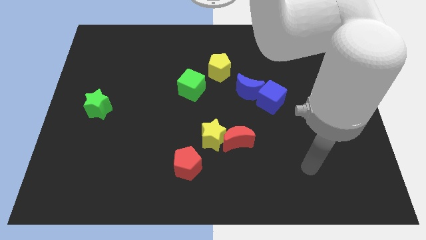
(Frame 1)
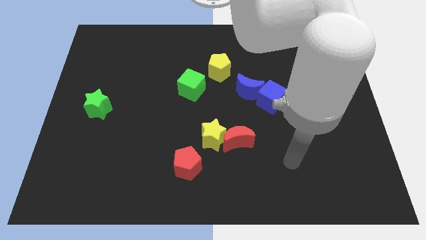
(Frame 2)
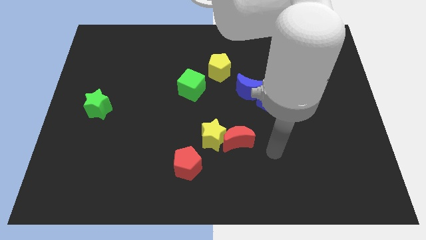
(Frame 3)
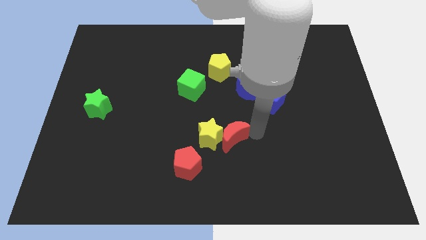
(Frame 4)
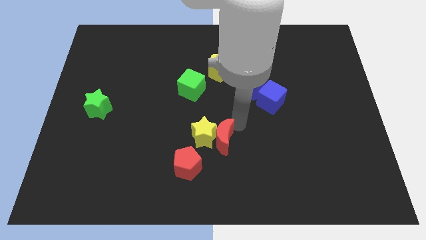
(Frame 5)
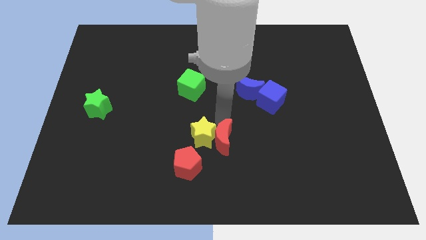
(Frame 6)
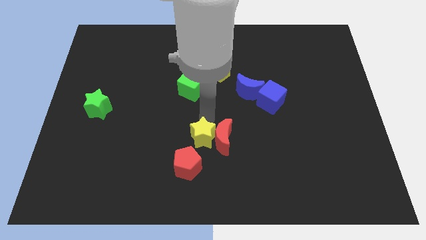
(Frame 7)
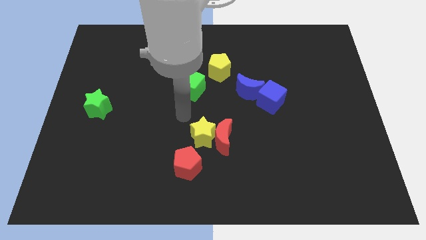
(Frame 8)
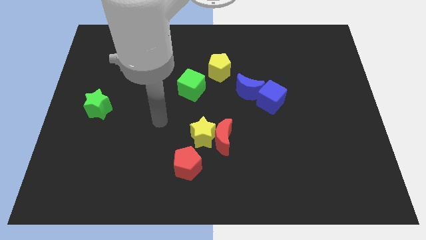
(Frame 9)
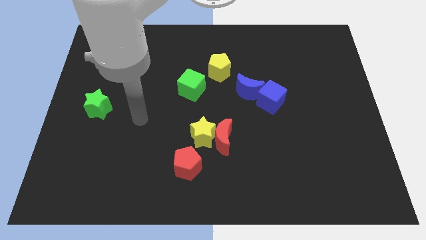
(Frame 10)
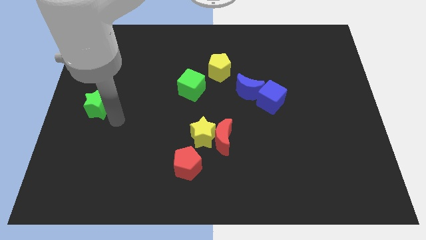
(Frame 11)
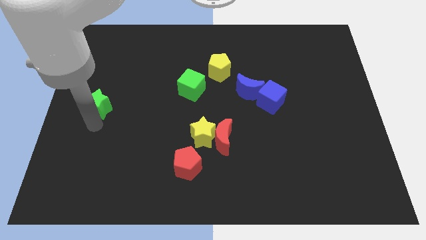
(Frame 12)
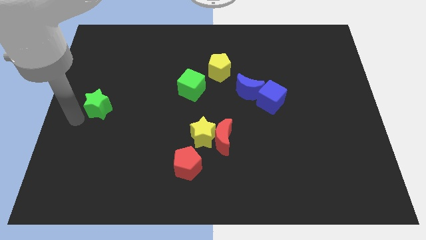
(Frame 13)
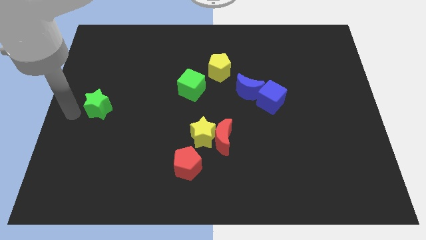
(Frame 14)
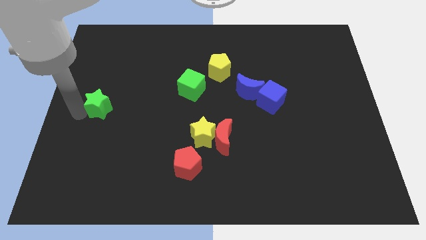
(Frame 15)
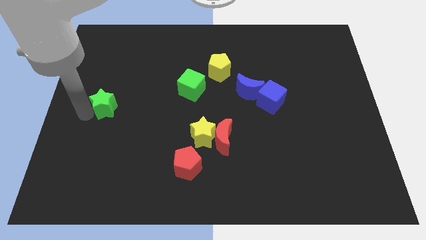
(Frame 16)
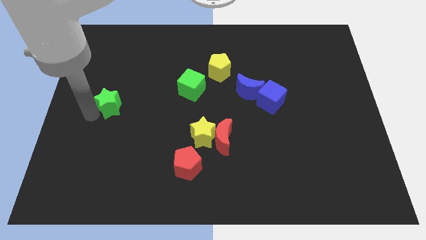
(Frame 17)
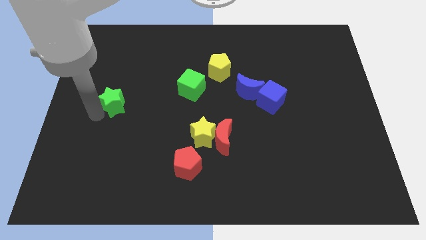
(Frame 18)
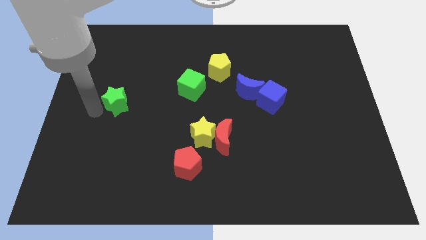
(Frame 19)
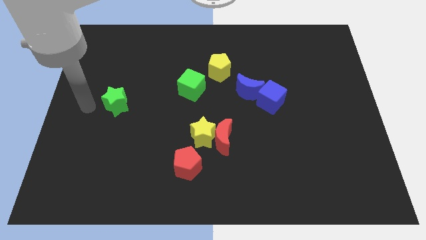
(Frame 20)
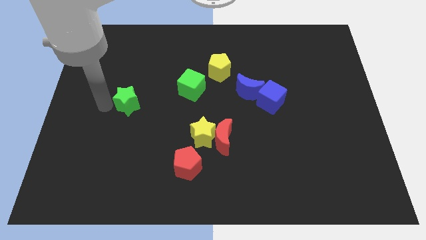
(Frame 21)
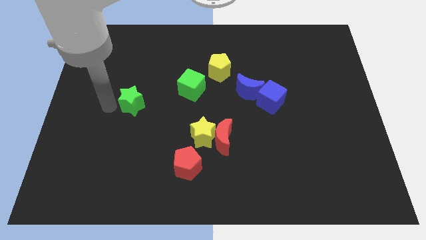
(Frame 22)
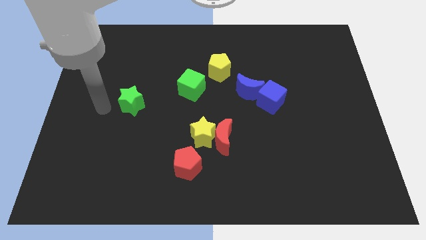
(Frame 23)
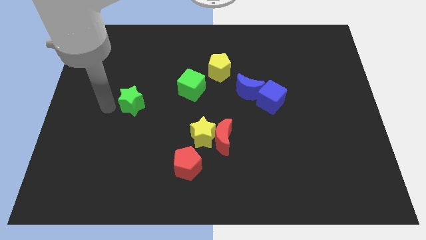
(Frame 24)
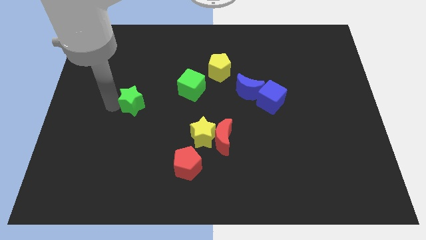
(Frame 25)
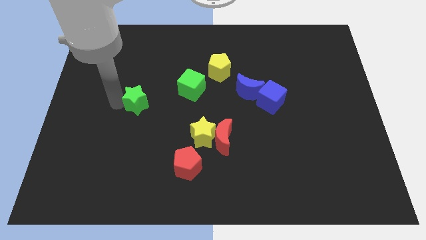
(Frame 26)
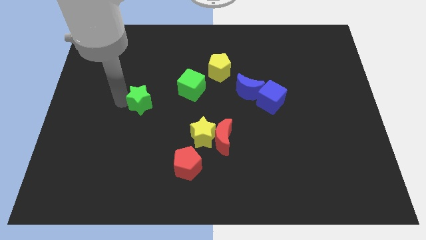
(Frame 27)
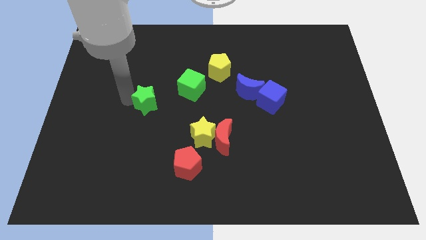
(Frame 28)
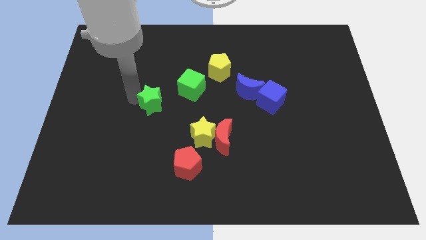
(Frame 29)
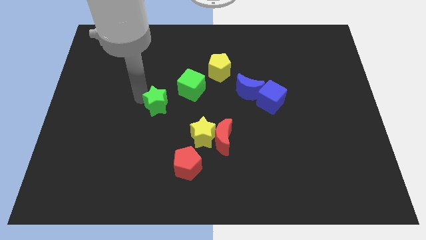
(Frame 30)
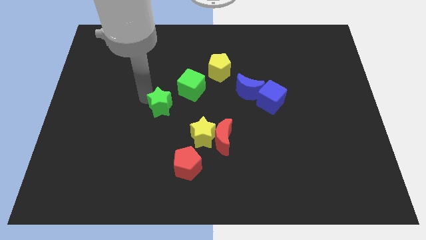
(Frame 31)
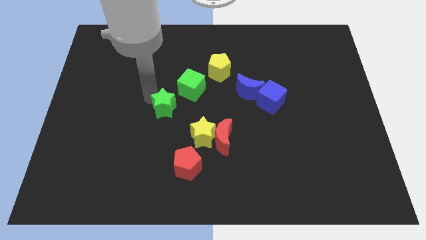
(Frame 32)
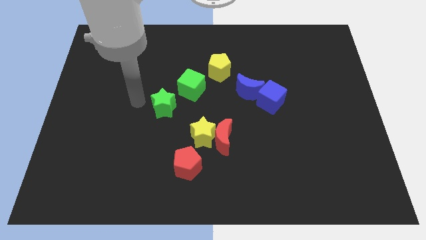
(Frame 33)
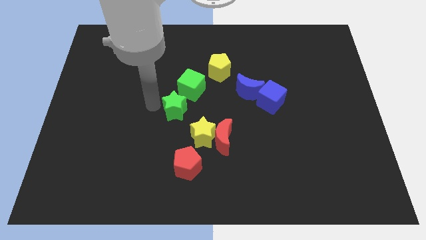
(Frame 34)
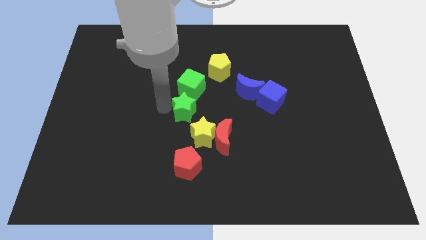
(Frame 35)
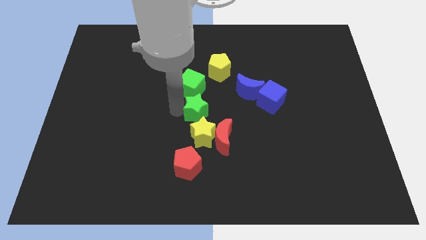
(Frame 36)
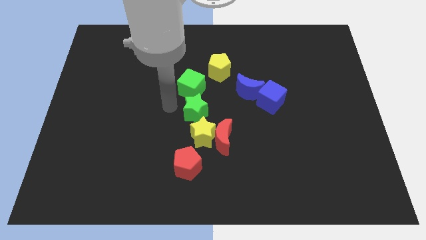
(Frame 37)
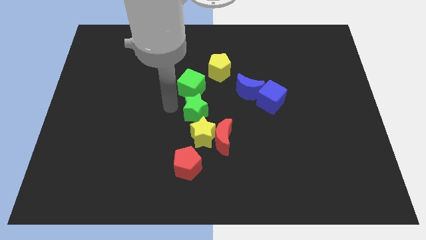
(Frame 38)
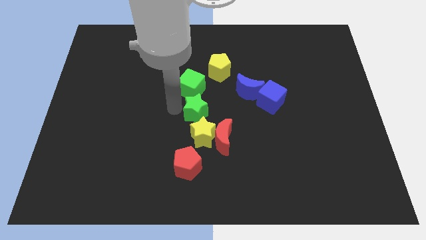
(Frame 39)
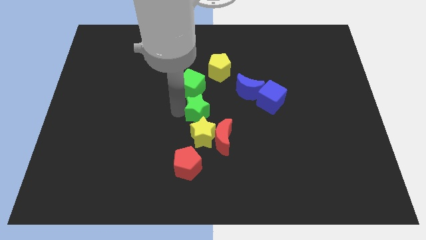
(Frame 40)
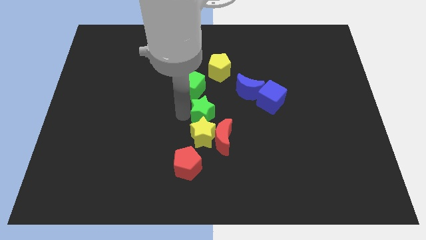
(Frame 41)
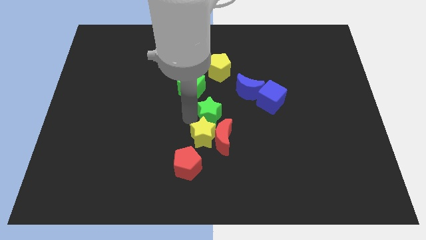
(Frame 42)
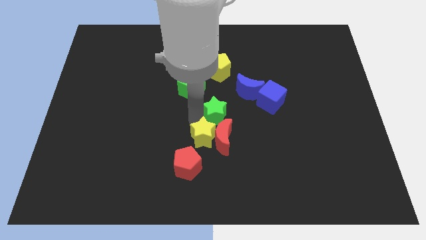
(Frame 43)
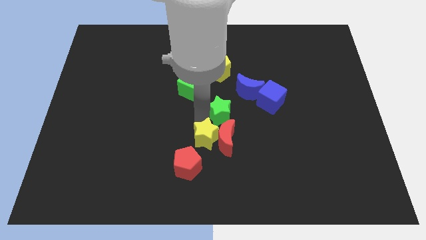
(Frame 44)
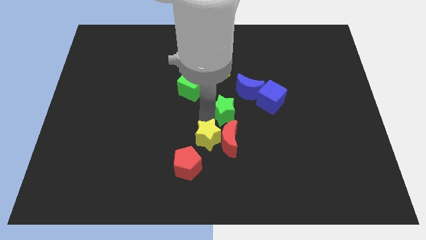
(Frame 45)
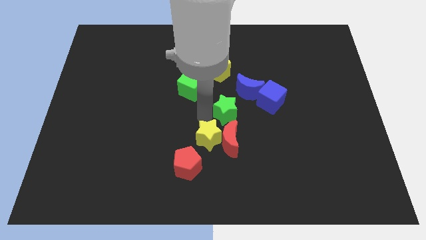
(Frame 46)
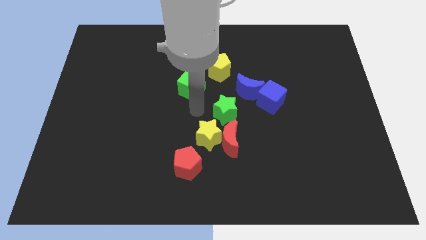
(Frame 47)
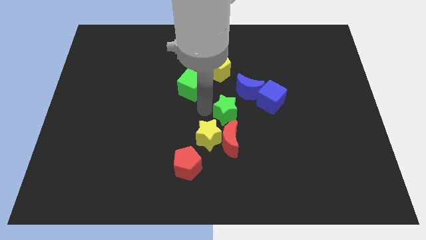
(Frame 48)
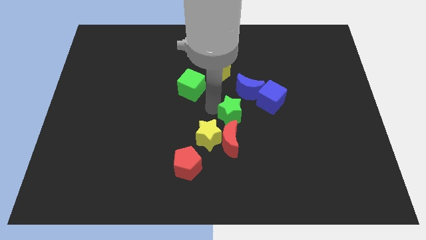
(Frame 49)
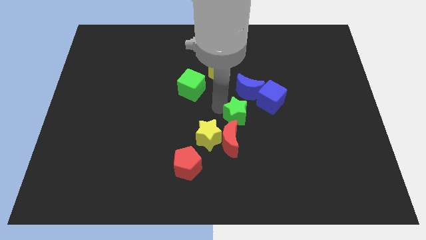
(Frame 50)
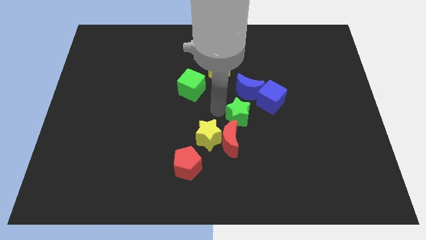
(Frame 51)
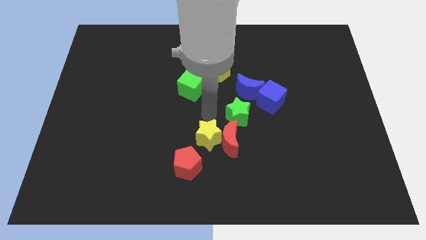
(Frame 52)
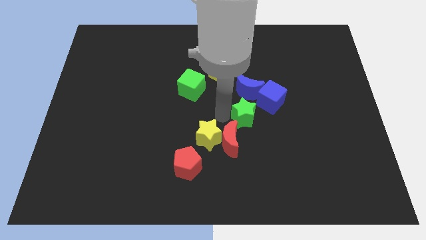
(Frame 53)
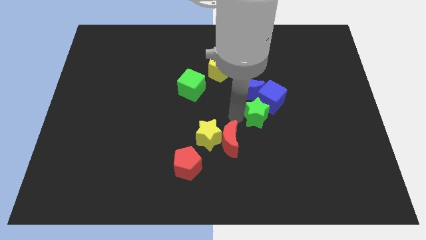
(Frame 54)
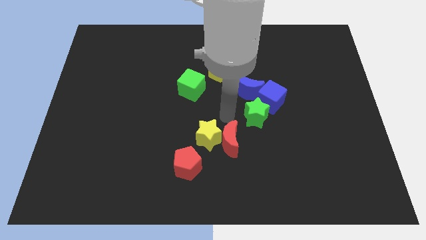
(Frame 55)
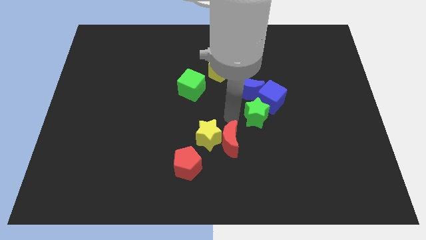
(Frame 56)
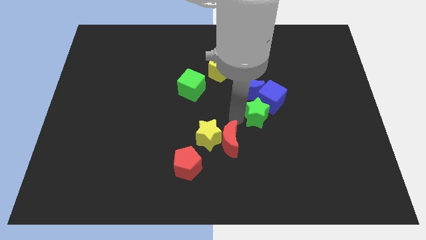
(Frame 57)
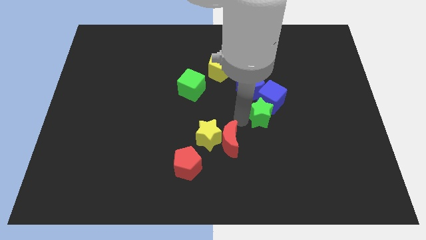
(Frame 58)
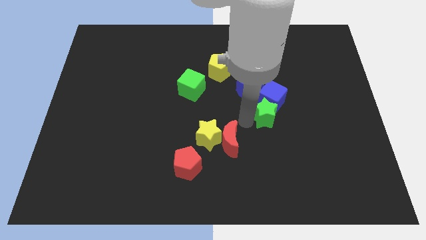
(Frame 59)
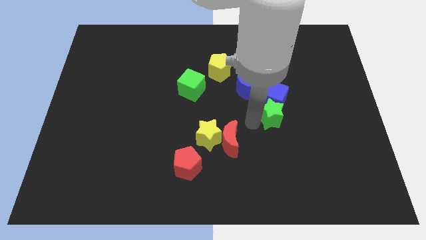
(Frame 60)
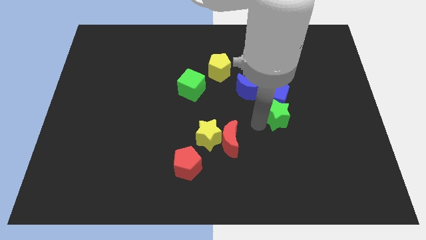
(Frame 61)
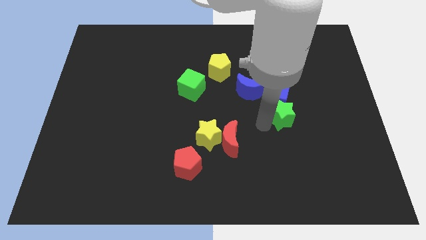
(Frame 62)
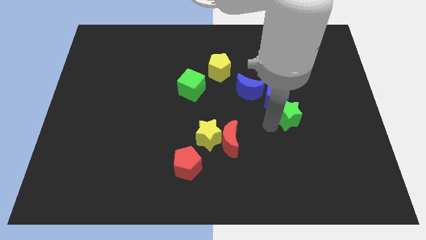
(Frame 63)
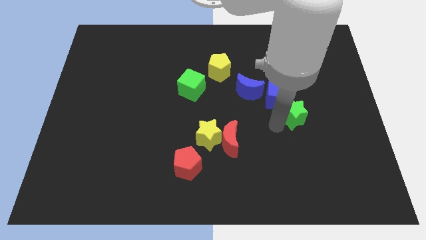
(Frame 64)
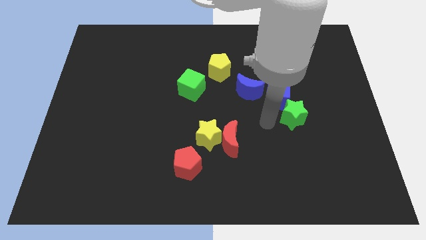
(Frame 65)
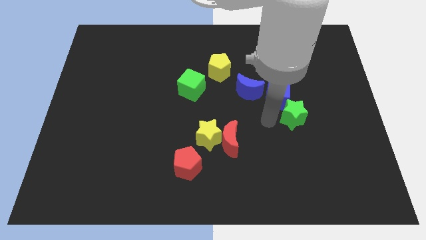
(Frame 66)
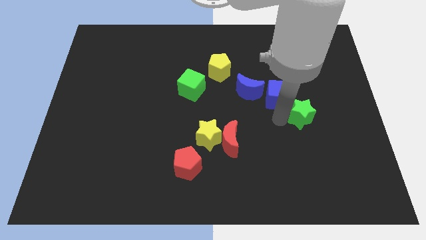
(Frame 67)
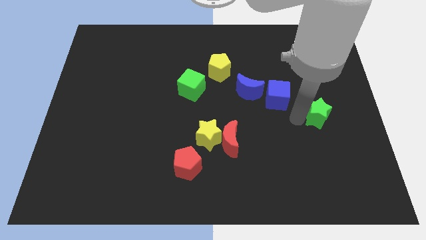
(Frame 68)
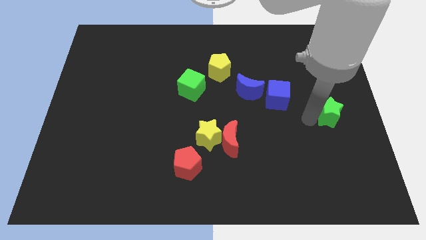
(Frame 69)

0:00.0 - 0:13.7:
push the green star to the right side
